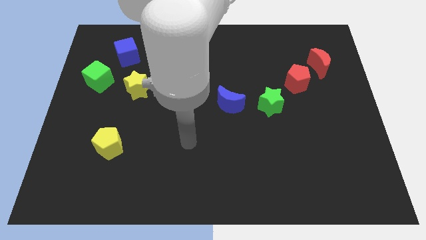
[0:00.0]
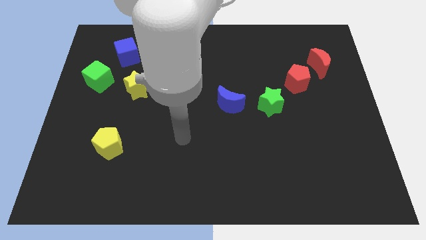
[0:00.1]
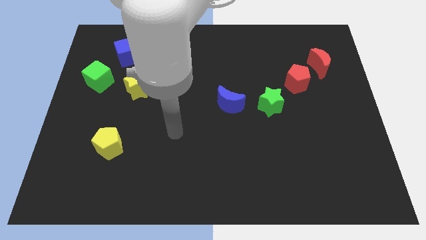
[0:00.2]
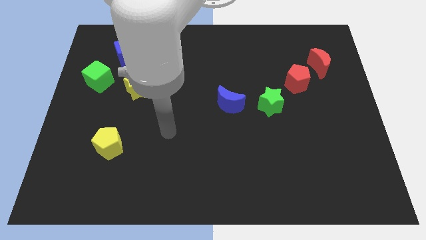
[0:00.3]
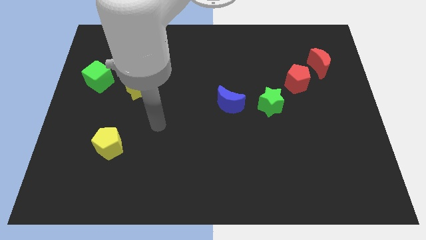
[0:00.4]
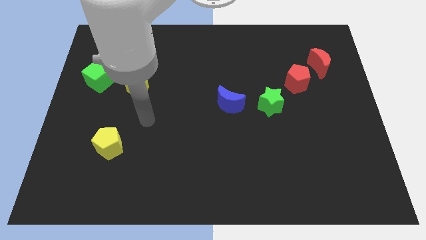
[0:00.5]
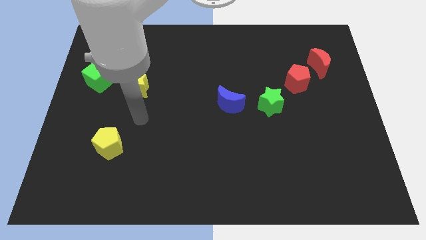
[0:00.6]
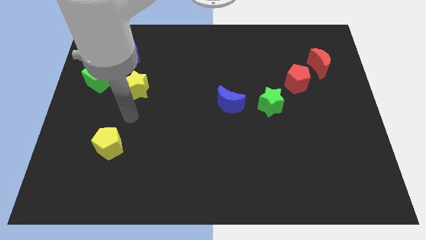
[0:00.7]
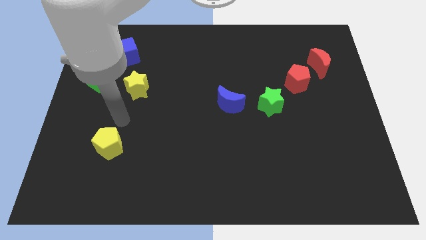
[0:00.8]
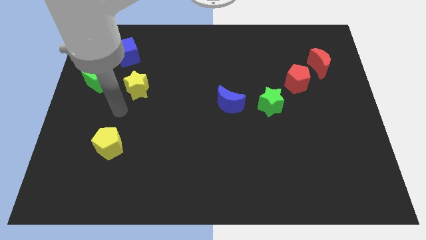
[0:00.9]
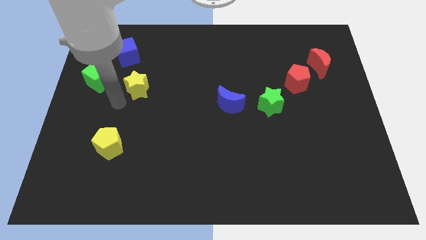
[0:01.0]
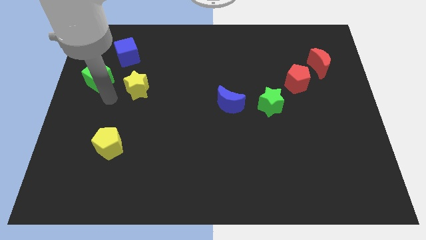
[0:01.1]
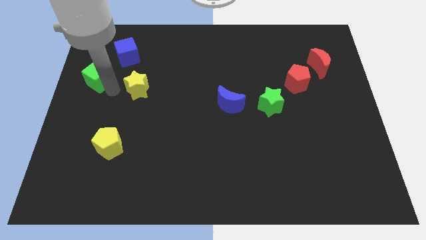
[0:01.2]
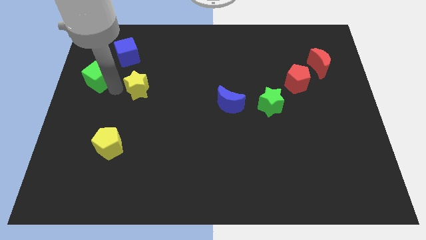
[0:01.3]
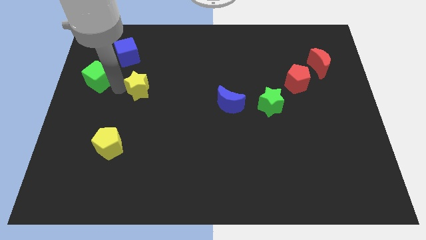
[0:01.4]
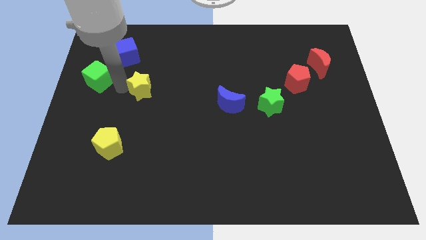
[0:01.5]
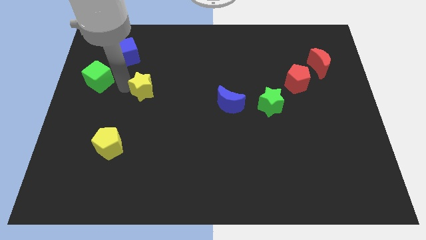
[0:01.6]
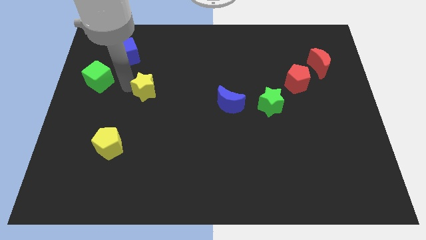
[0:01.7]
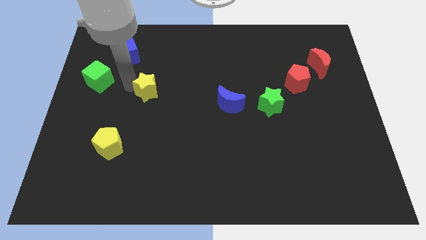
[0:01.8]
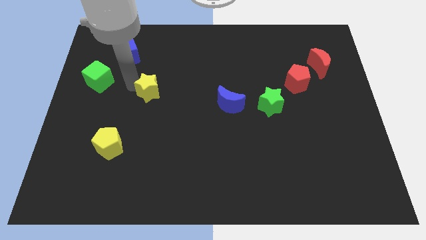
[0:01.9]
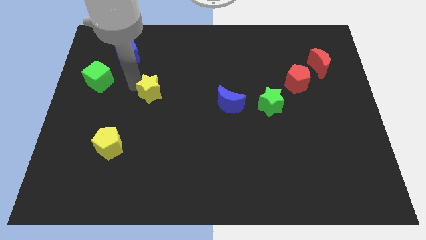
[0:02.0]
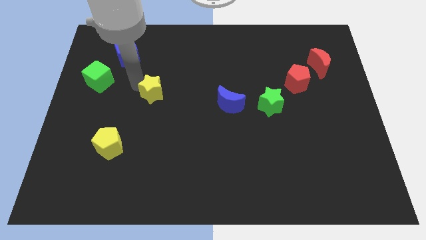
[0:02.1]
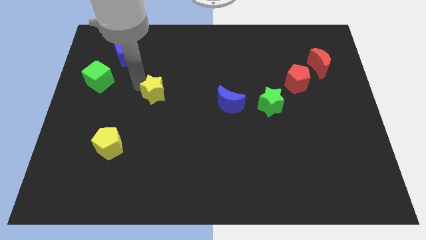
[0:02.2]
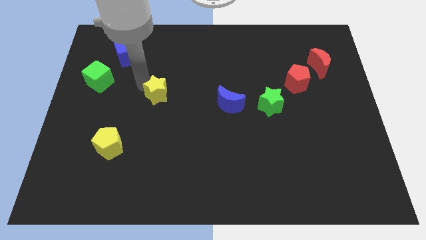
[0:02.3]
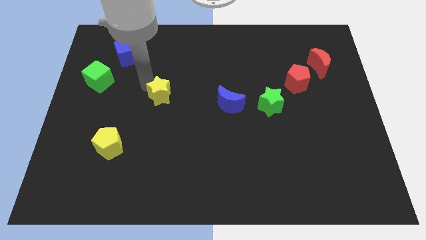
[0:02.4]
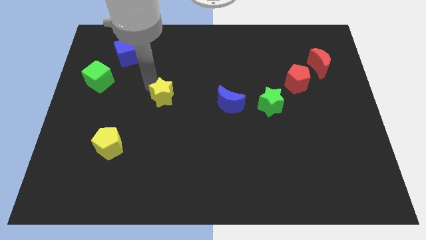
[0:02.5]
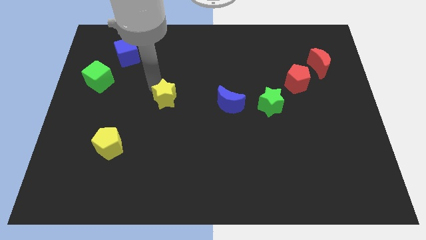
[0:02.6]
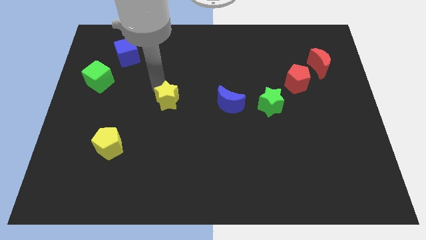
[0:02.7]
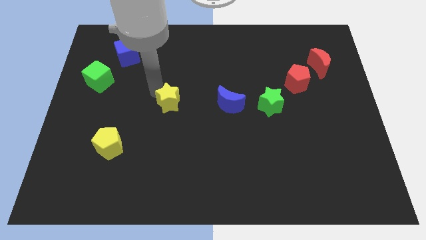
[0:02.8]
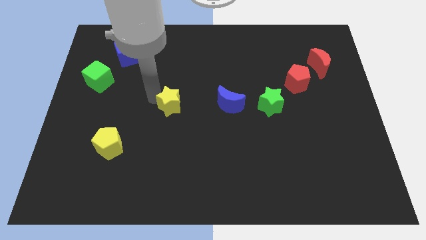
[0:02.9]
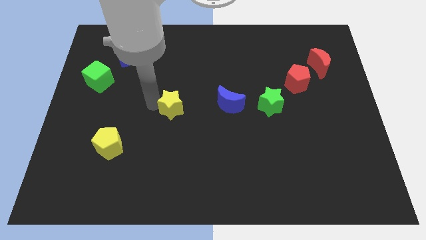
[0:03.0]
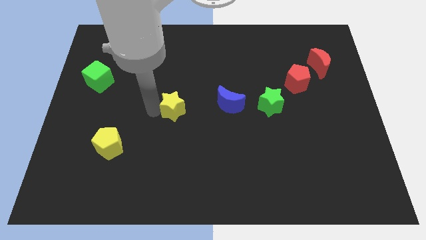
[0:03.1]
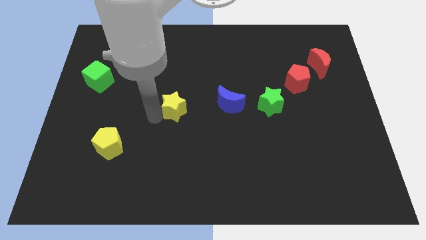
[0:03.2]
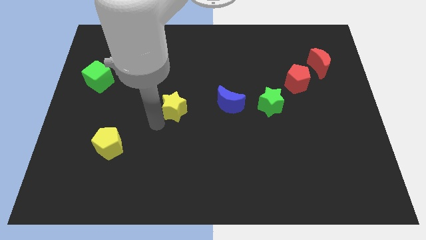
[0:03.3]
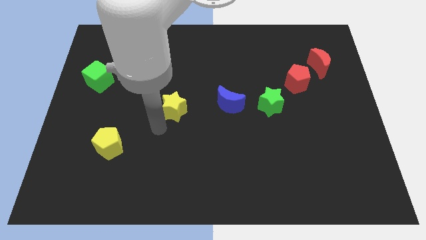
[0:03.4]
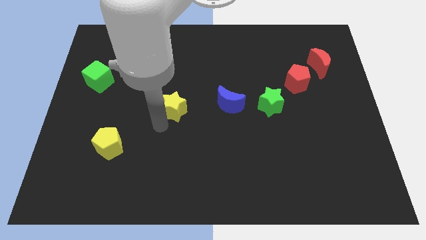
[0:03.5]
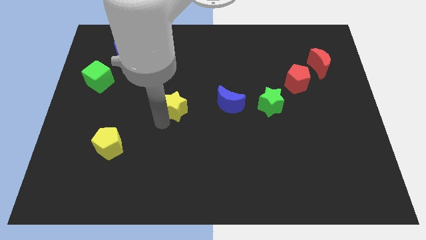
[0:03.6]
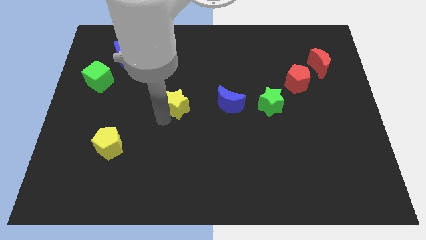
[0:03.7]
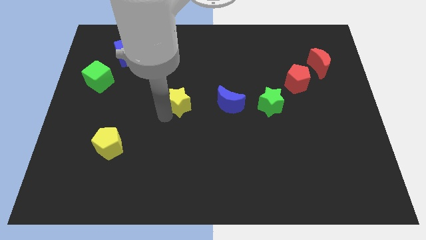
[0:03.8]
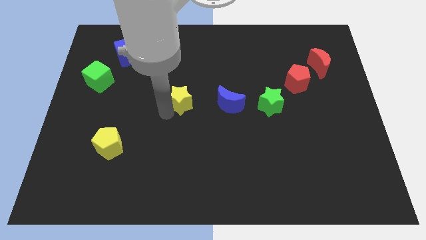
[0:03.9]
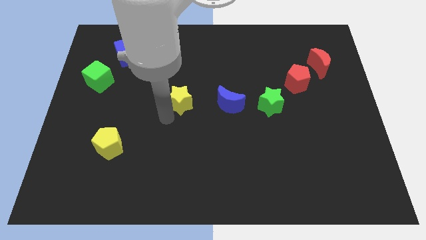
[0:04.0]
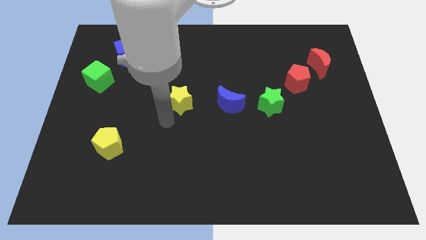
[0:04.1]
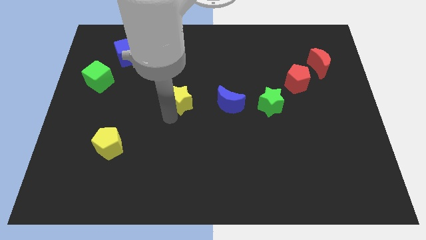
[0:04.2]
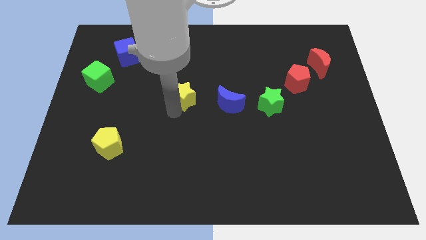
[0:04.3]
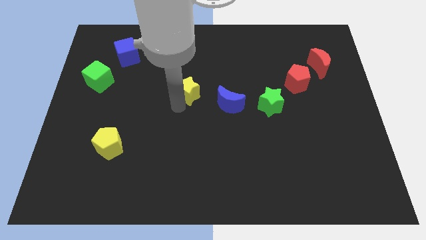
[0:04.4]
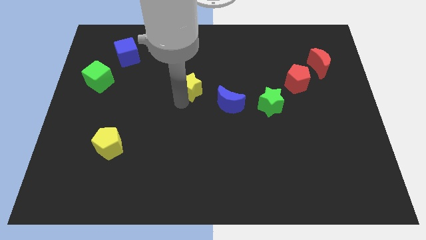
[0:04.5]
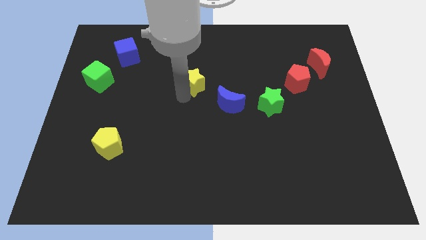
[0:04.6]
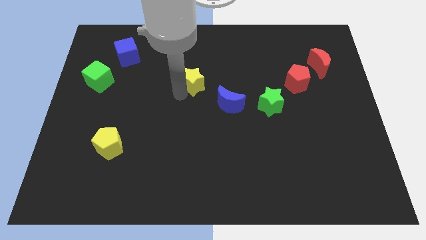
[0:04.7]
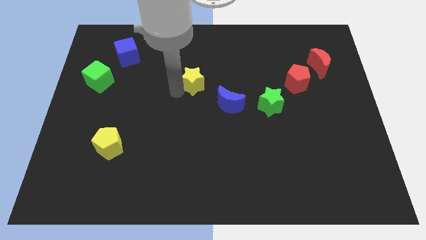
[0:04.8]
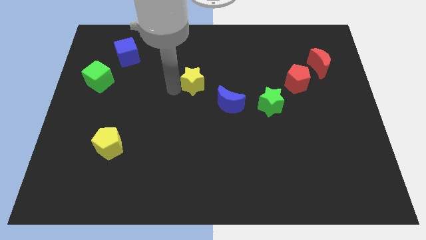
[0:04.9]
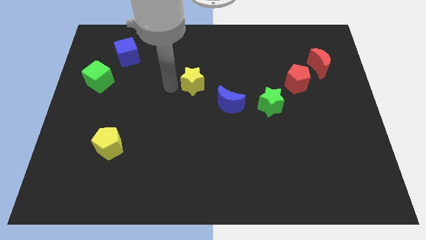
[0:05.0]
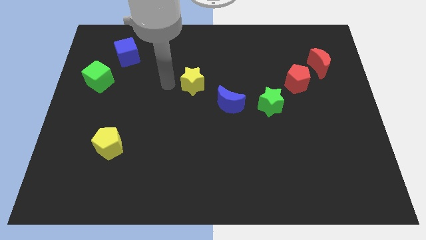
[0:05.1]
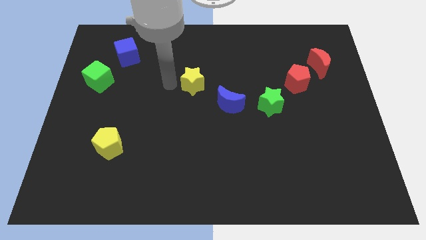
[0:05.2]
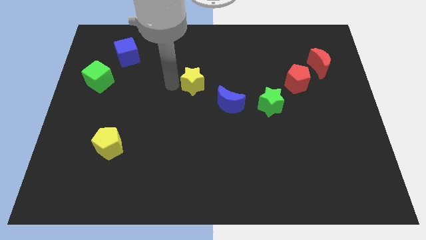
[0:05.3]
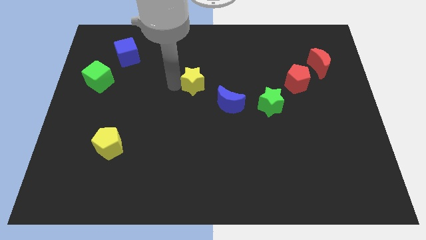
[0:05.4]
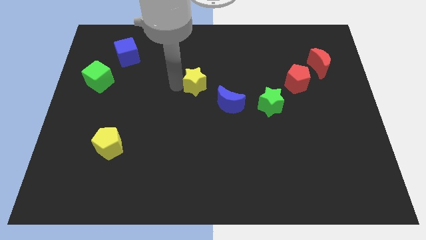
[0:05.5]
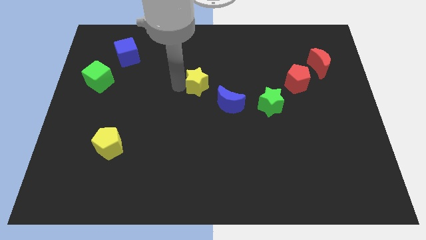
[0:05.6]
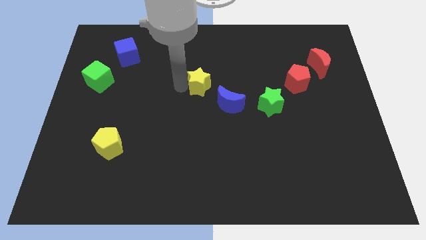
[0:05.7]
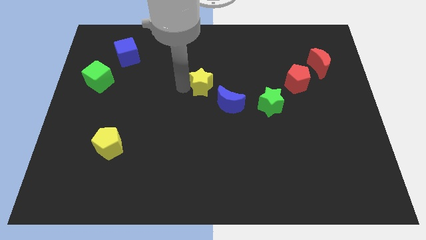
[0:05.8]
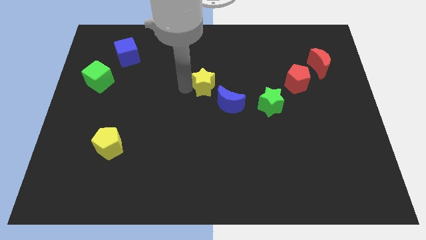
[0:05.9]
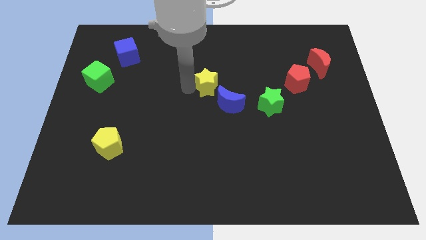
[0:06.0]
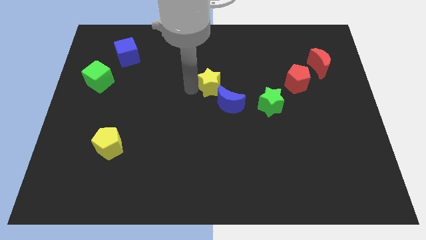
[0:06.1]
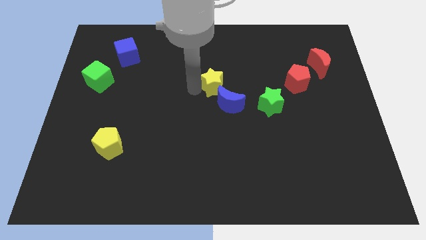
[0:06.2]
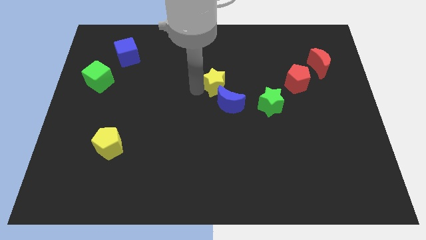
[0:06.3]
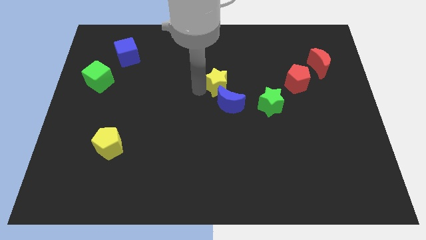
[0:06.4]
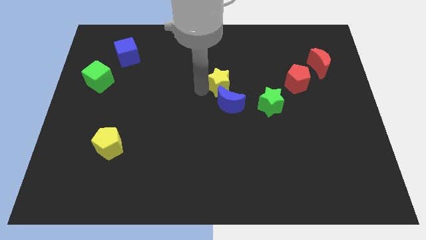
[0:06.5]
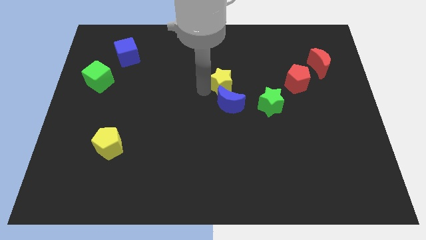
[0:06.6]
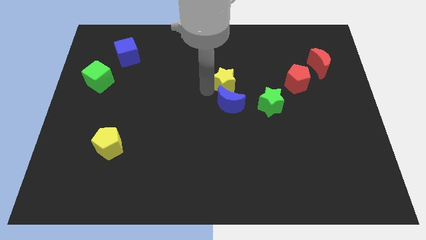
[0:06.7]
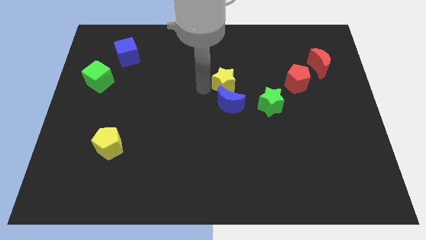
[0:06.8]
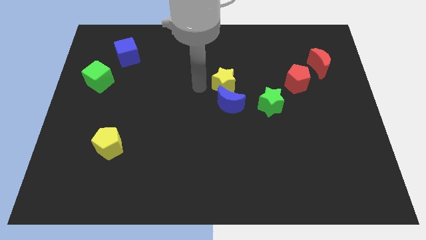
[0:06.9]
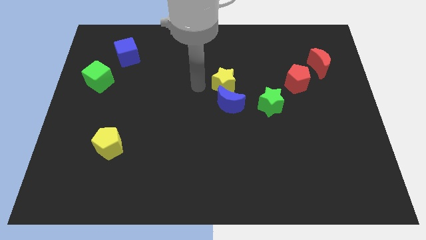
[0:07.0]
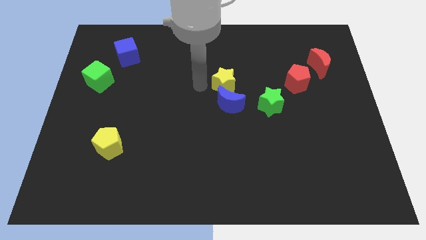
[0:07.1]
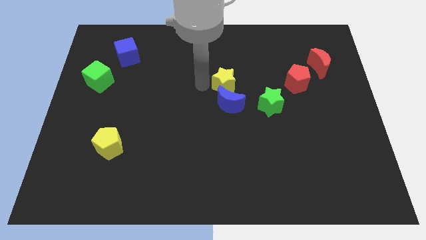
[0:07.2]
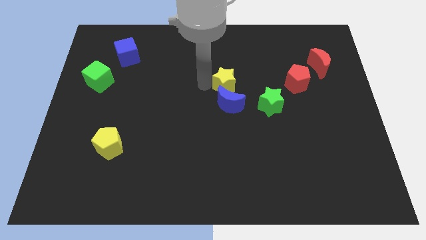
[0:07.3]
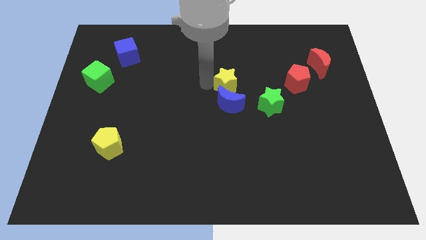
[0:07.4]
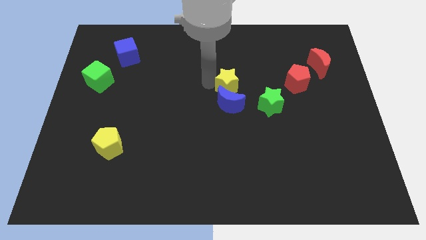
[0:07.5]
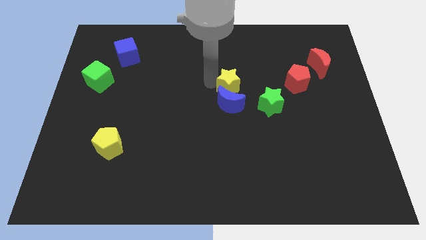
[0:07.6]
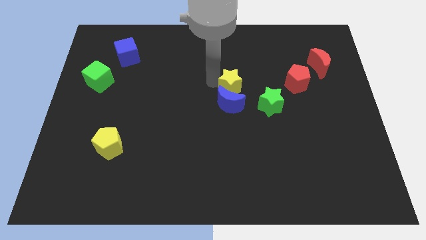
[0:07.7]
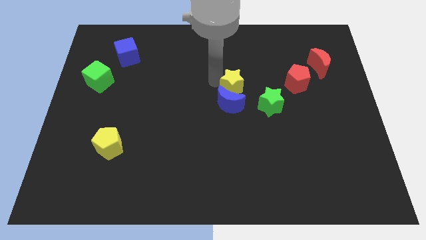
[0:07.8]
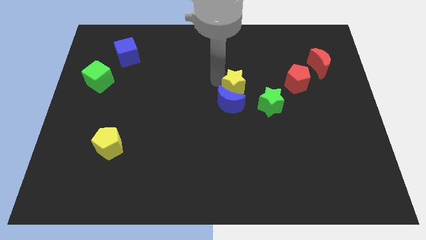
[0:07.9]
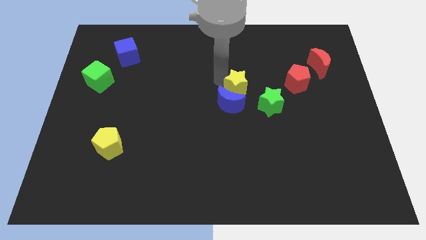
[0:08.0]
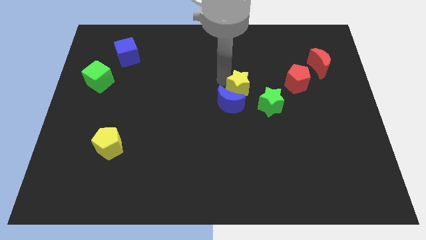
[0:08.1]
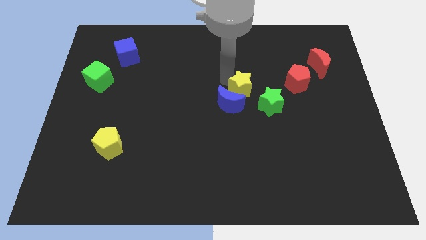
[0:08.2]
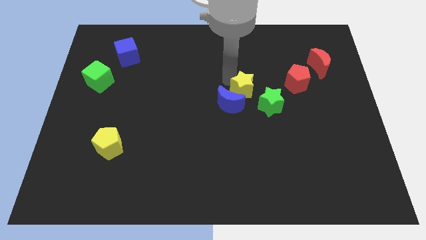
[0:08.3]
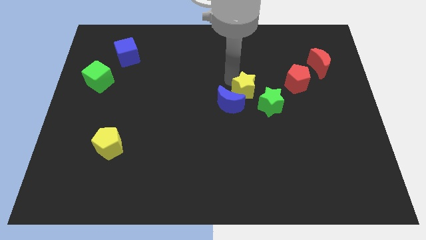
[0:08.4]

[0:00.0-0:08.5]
slide the yellow star to the right of the blue moon
